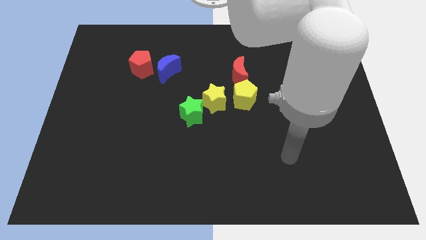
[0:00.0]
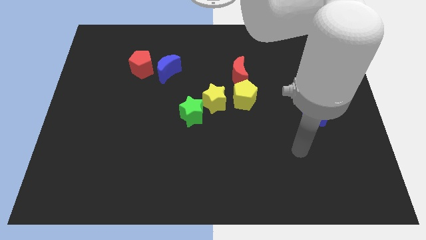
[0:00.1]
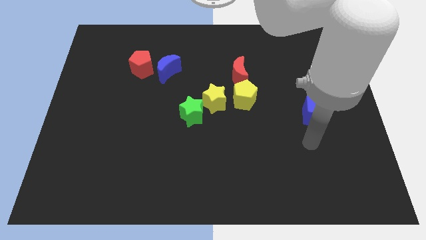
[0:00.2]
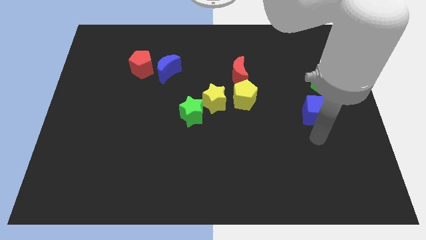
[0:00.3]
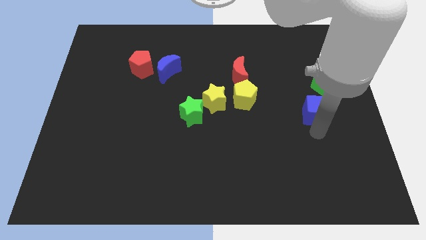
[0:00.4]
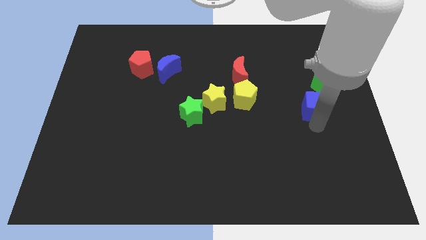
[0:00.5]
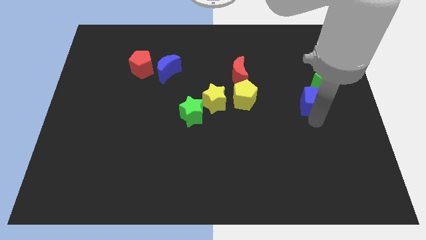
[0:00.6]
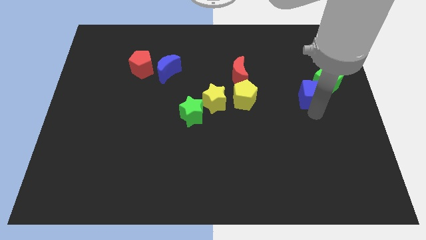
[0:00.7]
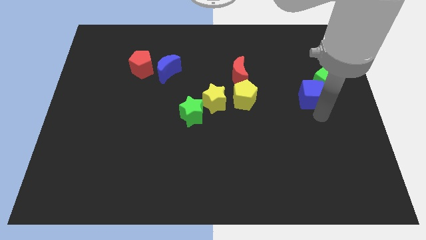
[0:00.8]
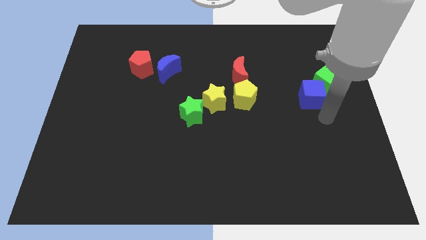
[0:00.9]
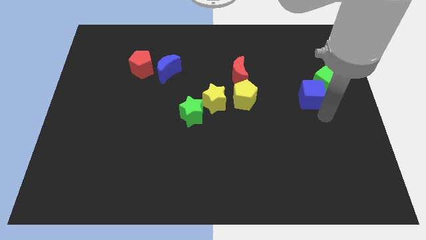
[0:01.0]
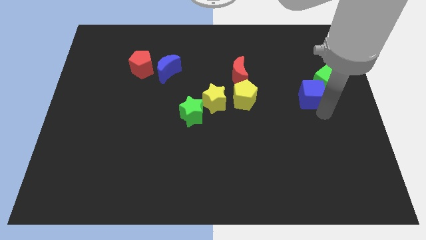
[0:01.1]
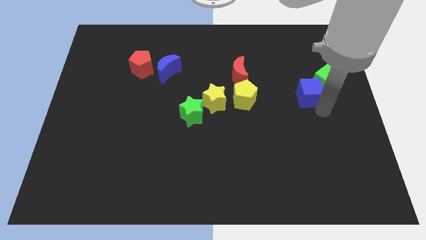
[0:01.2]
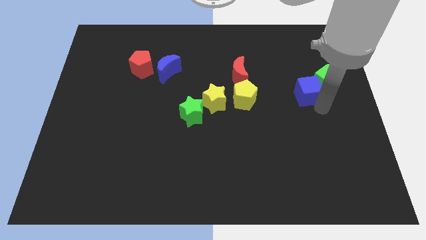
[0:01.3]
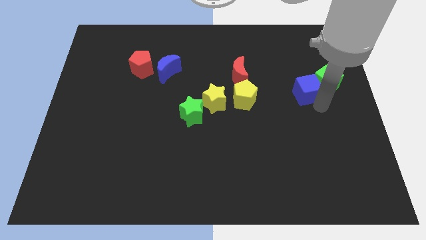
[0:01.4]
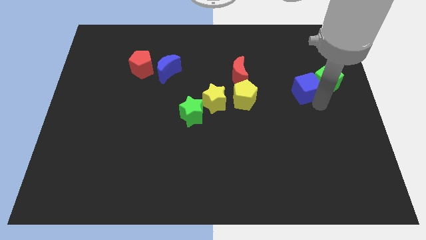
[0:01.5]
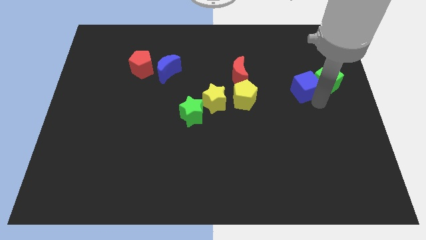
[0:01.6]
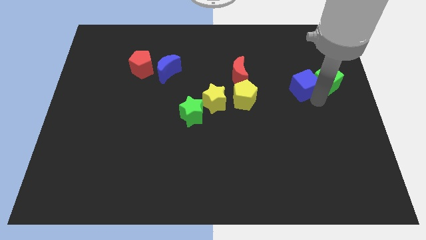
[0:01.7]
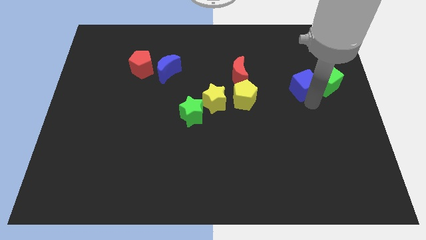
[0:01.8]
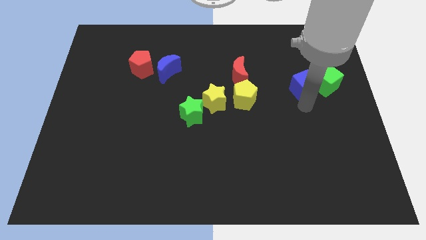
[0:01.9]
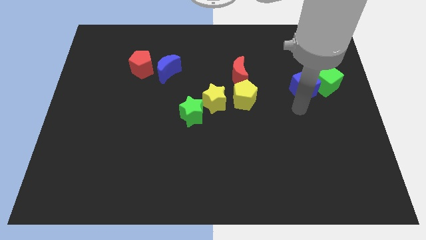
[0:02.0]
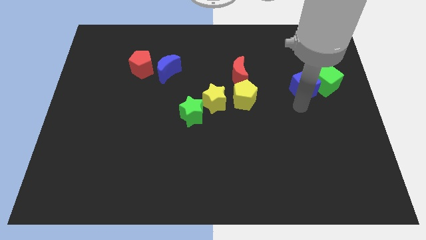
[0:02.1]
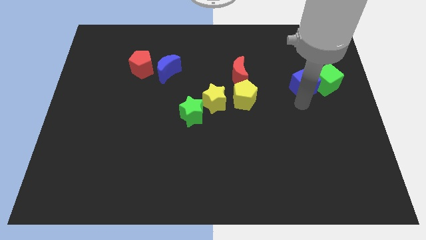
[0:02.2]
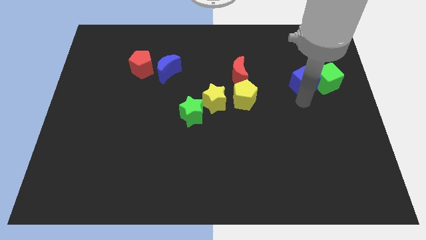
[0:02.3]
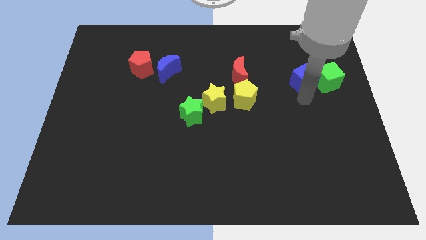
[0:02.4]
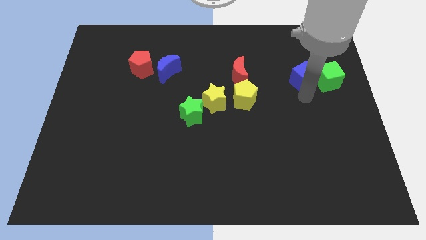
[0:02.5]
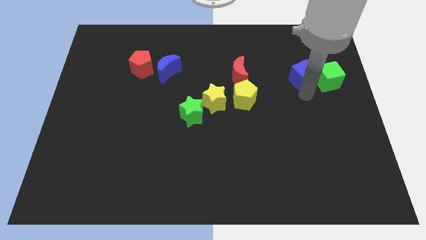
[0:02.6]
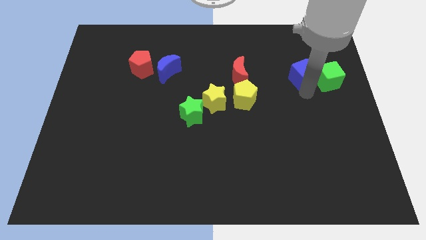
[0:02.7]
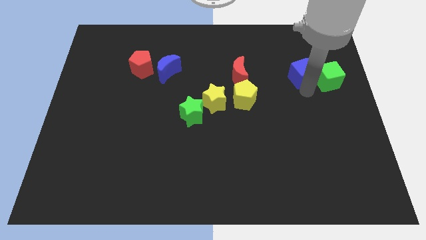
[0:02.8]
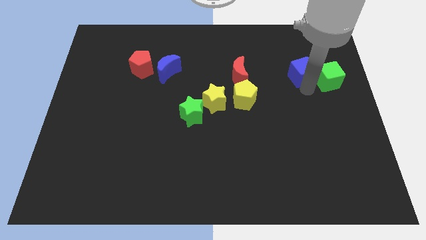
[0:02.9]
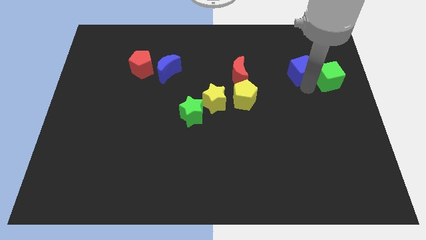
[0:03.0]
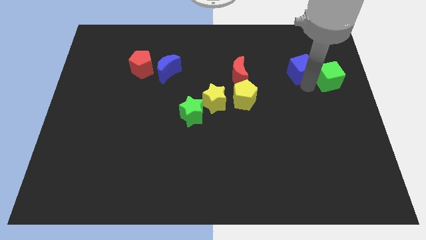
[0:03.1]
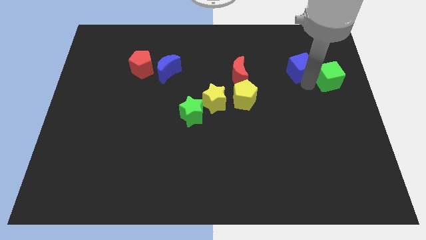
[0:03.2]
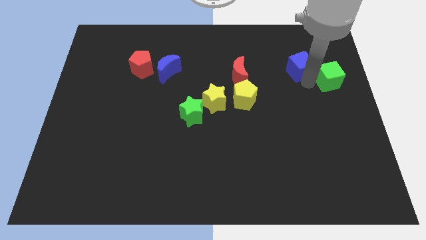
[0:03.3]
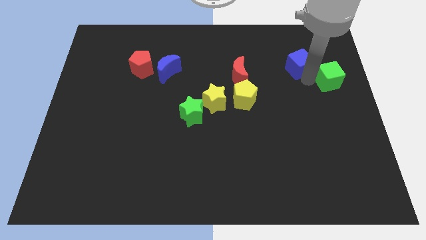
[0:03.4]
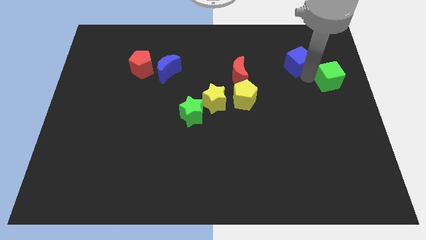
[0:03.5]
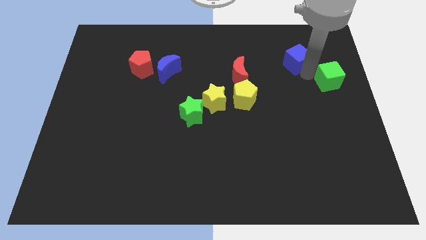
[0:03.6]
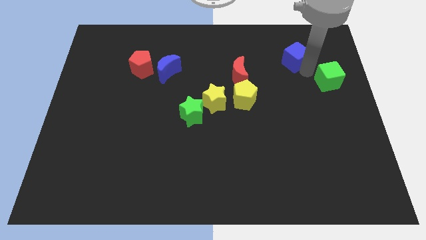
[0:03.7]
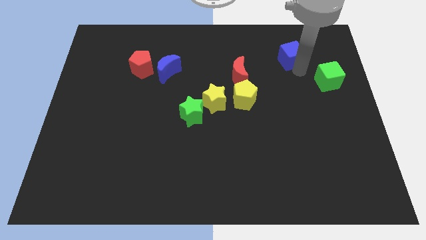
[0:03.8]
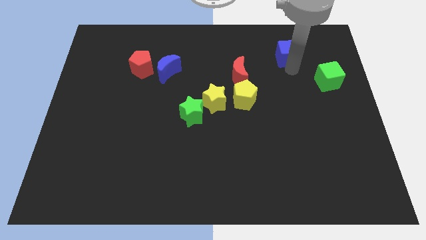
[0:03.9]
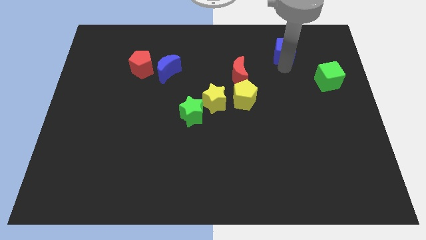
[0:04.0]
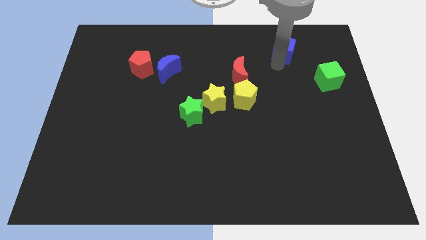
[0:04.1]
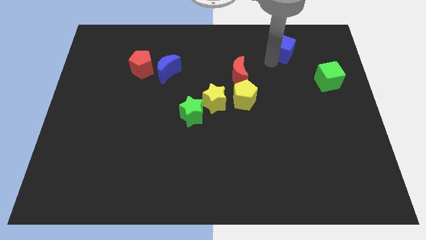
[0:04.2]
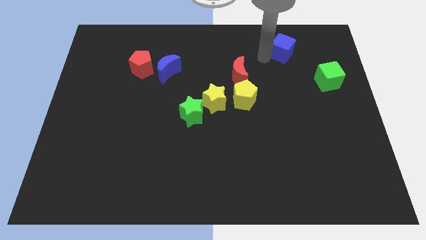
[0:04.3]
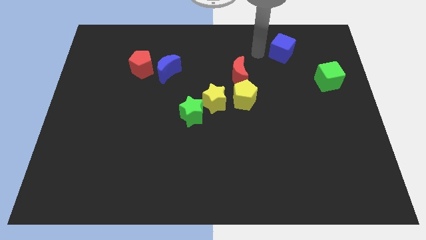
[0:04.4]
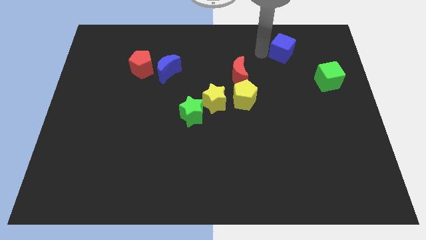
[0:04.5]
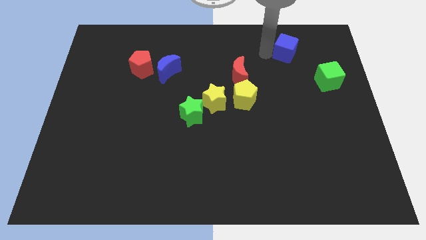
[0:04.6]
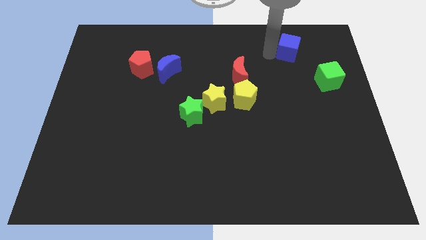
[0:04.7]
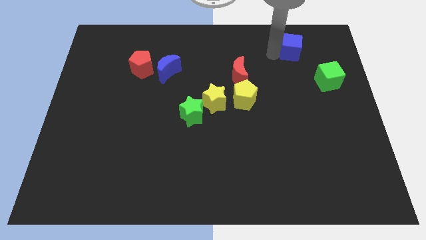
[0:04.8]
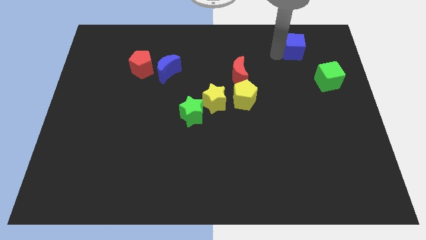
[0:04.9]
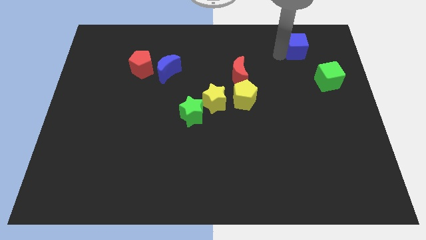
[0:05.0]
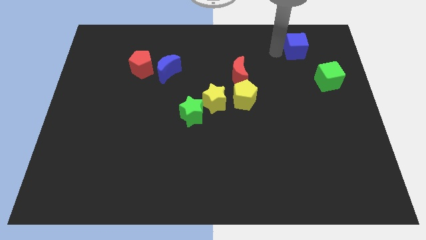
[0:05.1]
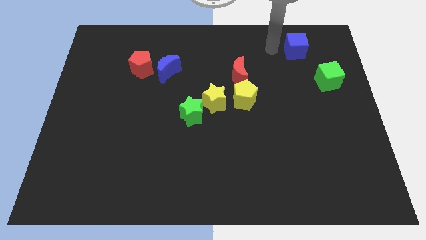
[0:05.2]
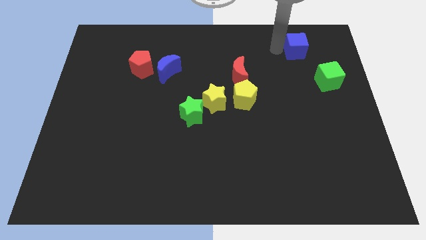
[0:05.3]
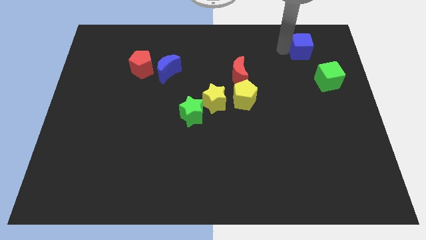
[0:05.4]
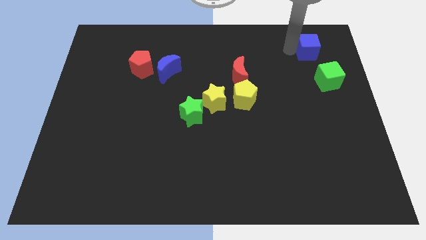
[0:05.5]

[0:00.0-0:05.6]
move the blue cube to the top side of the green cube

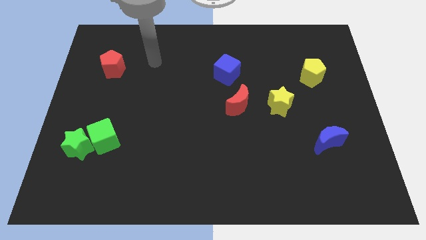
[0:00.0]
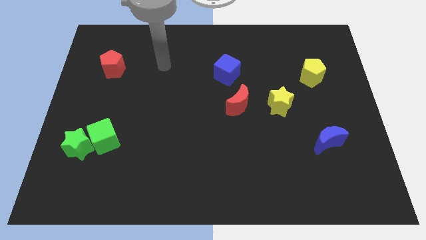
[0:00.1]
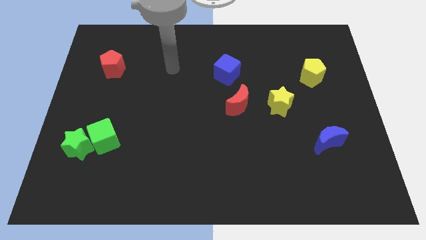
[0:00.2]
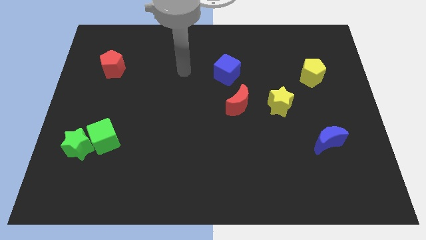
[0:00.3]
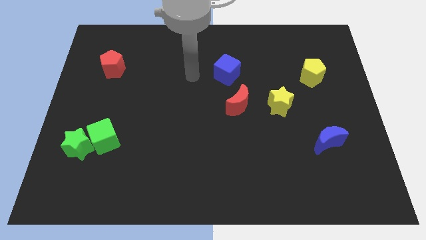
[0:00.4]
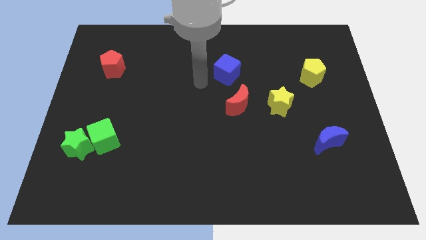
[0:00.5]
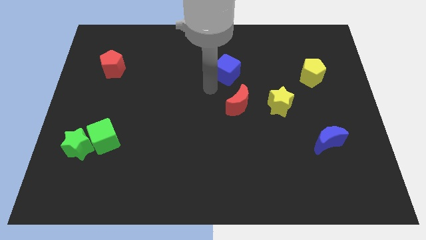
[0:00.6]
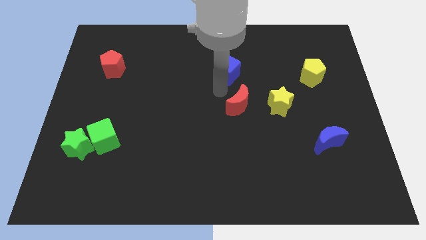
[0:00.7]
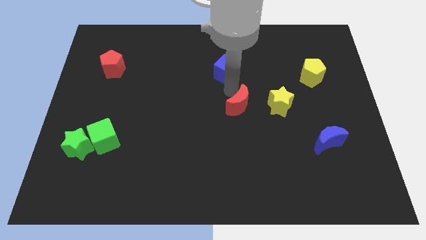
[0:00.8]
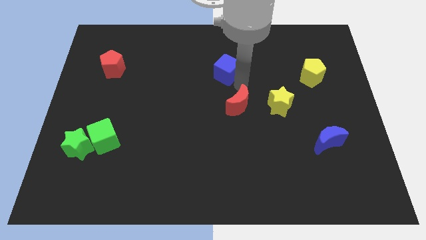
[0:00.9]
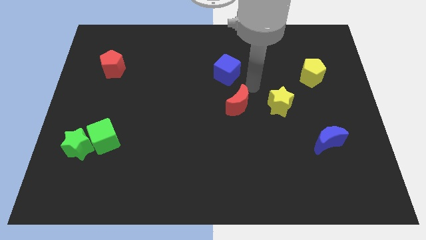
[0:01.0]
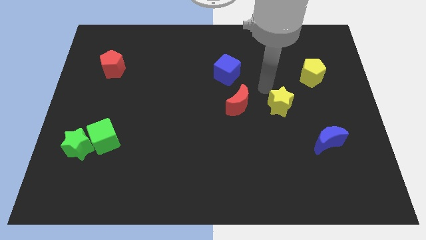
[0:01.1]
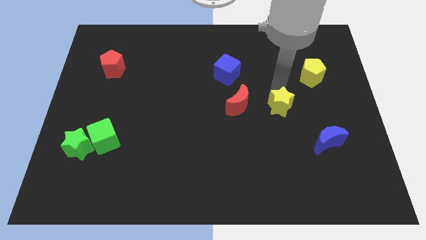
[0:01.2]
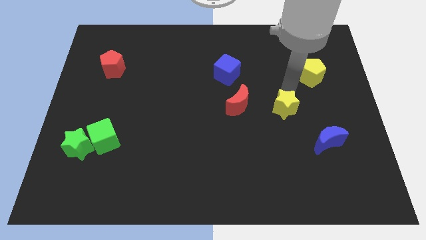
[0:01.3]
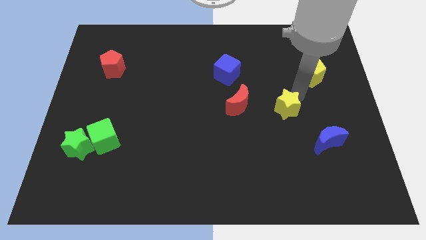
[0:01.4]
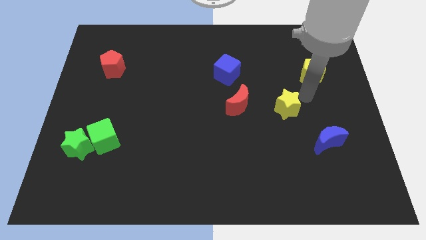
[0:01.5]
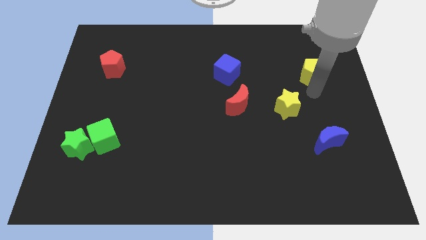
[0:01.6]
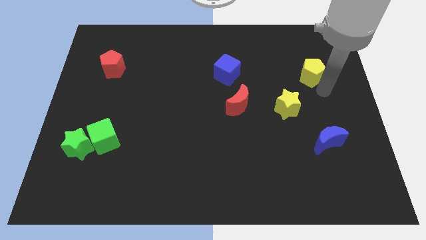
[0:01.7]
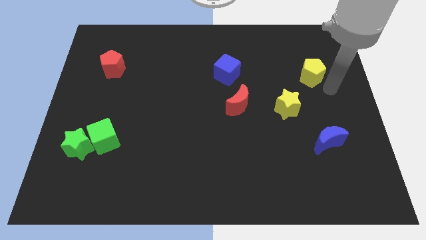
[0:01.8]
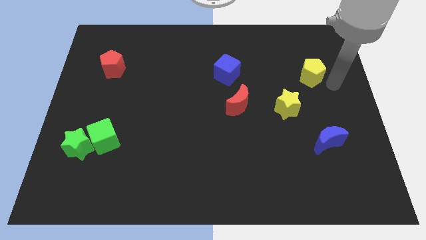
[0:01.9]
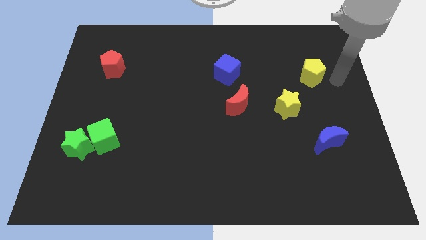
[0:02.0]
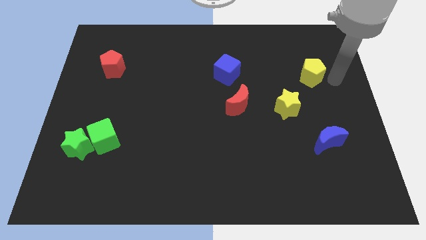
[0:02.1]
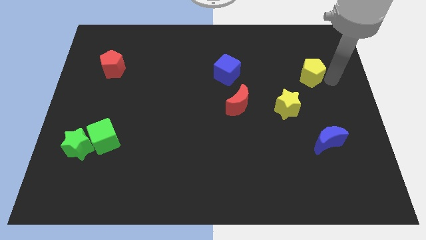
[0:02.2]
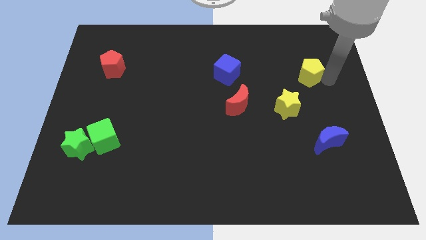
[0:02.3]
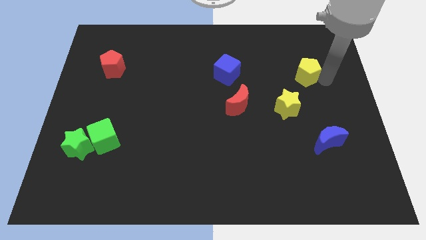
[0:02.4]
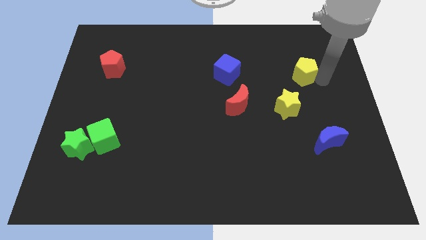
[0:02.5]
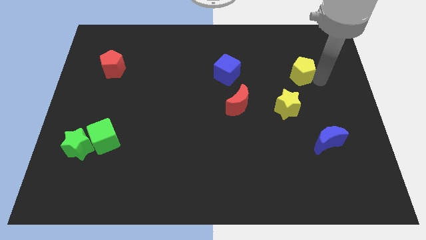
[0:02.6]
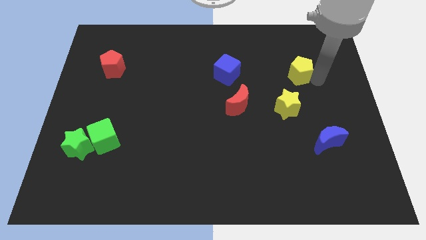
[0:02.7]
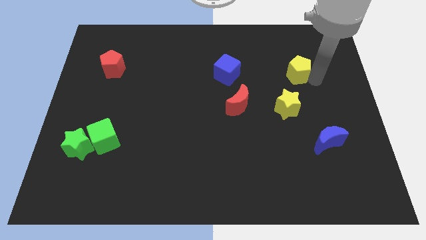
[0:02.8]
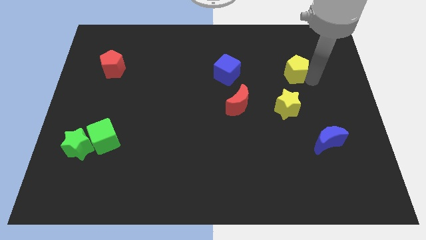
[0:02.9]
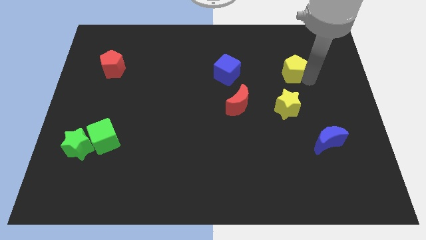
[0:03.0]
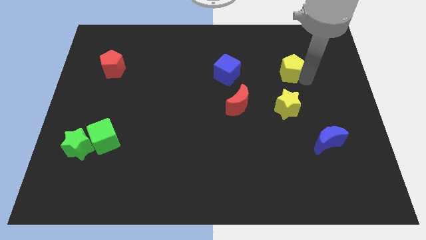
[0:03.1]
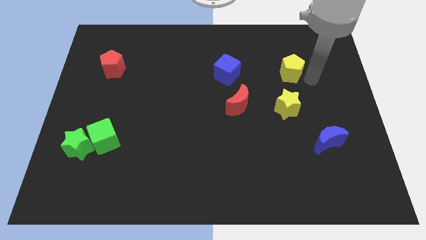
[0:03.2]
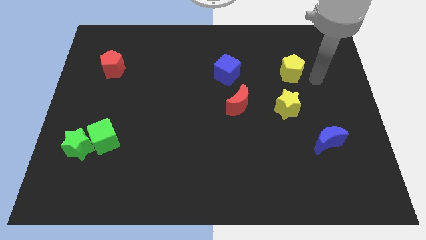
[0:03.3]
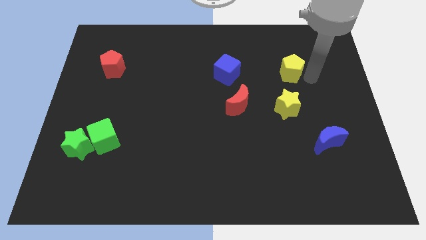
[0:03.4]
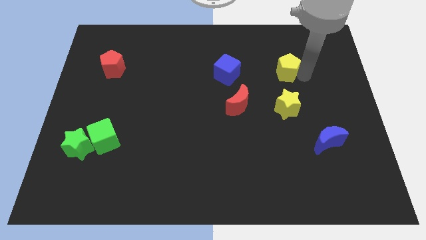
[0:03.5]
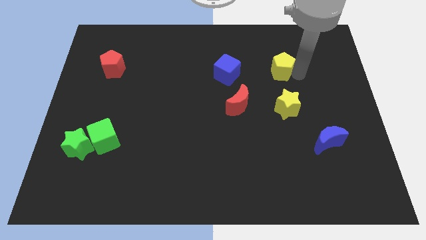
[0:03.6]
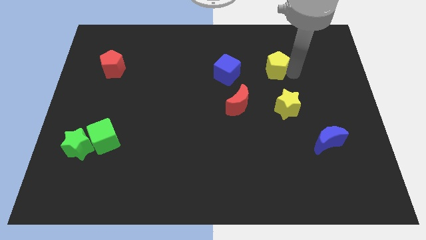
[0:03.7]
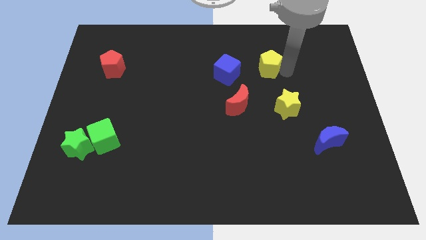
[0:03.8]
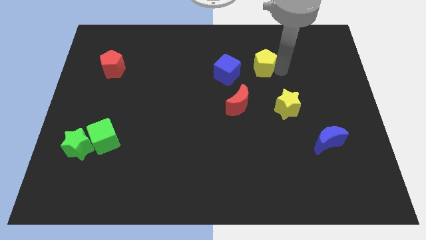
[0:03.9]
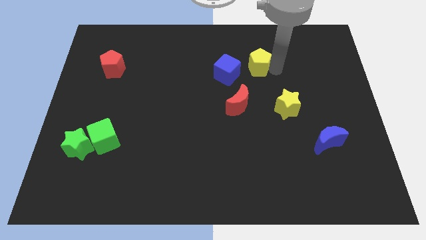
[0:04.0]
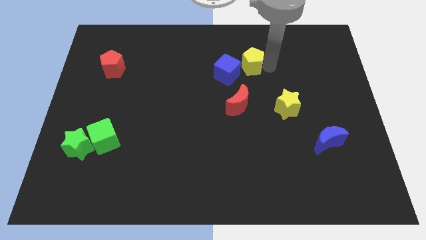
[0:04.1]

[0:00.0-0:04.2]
push the yellow pentagon to the top side of the red moon
